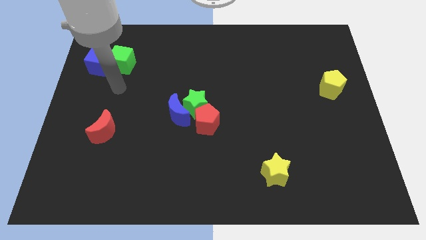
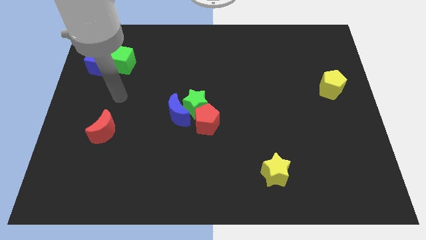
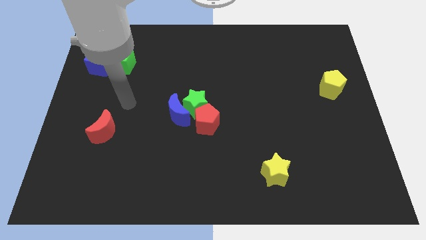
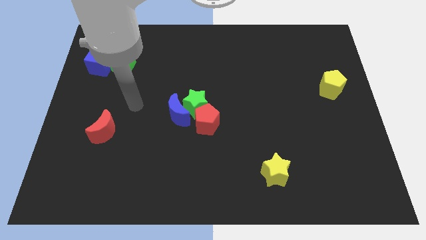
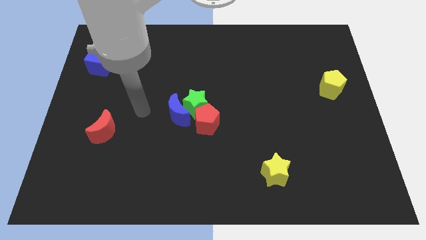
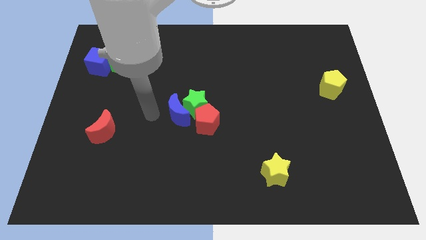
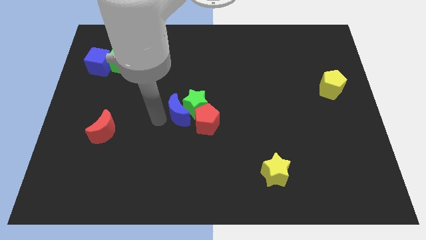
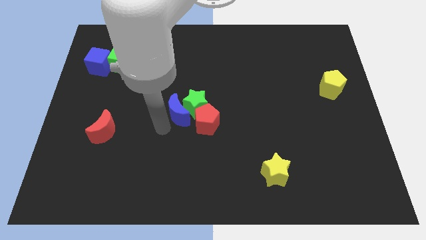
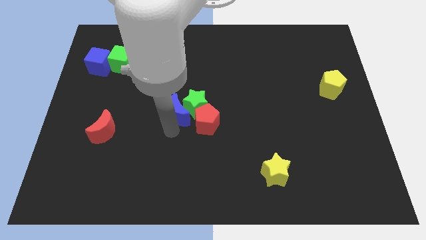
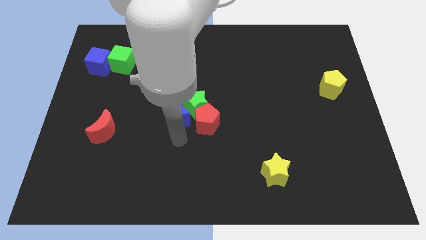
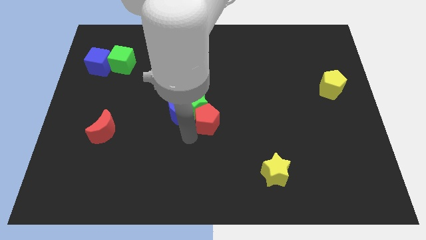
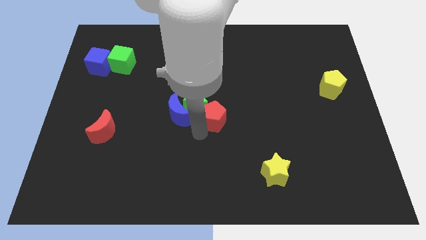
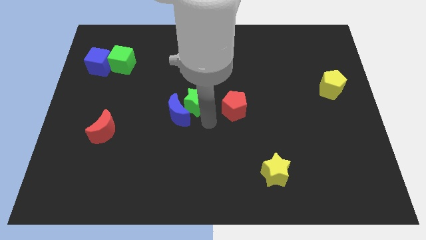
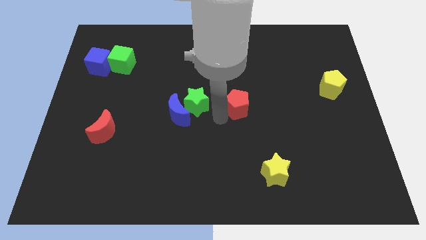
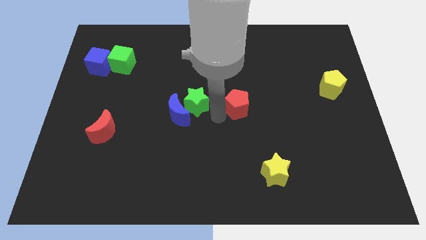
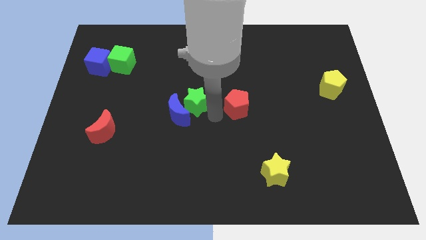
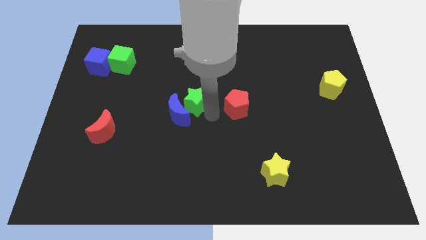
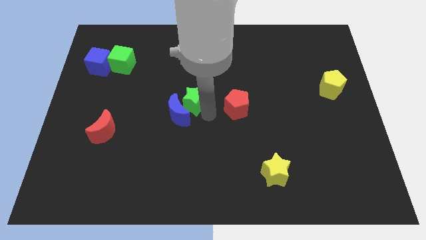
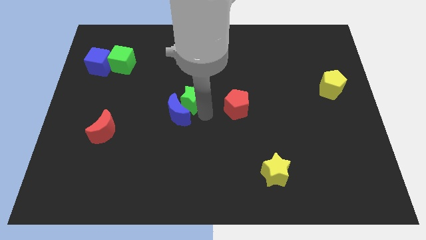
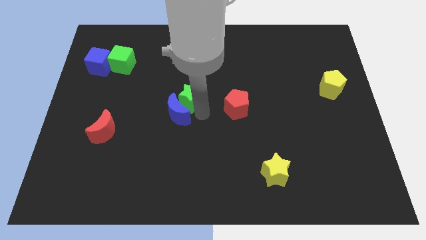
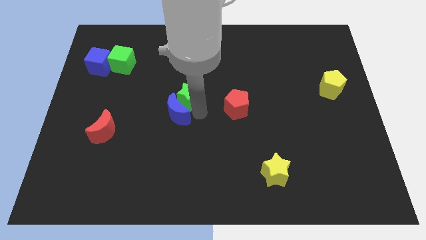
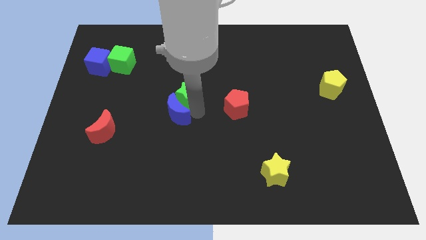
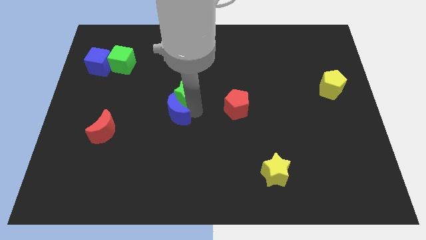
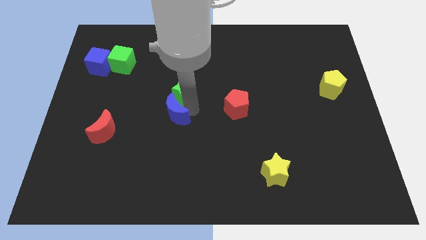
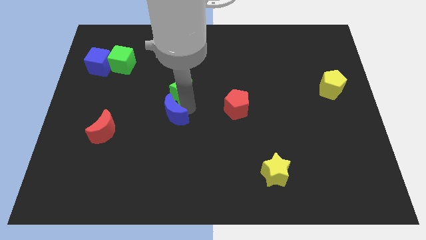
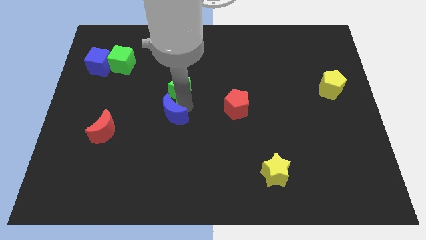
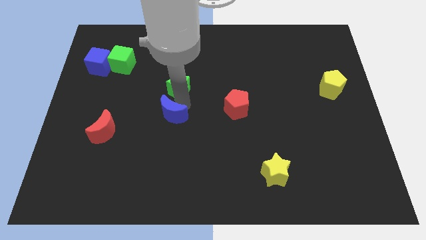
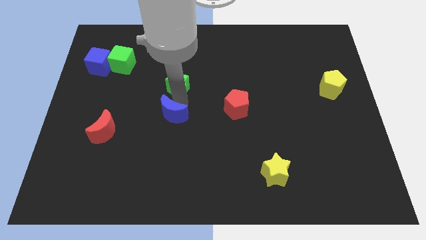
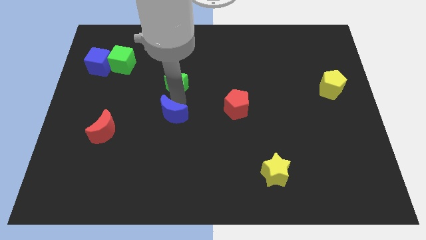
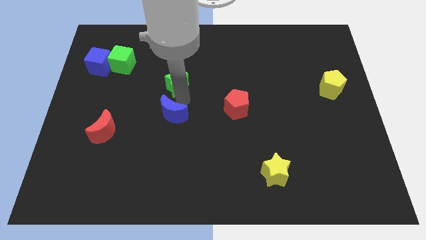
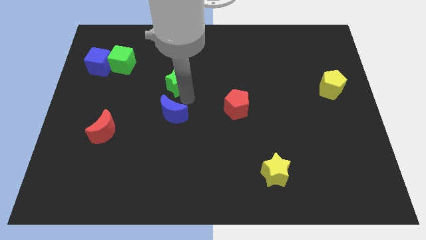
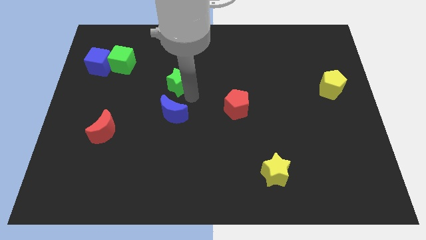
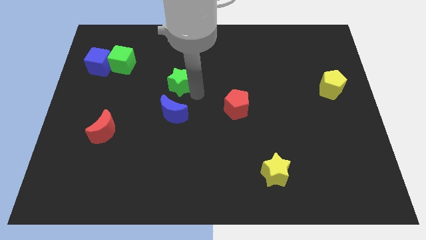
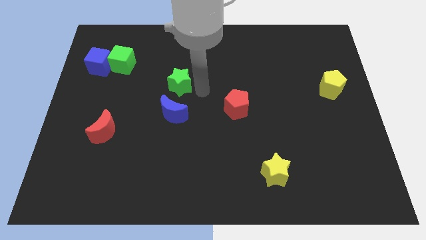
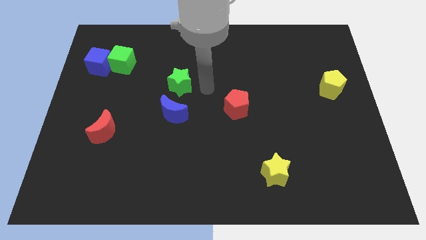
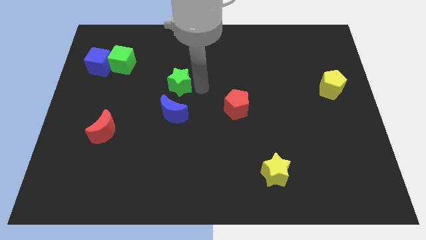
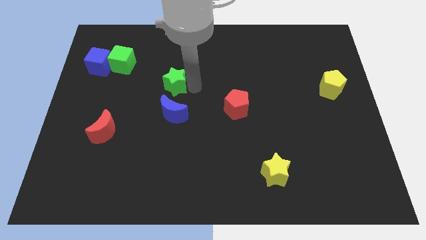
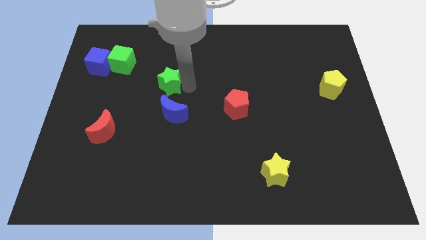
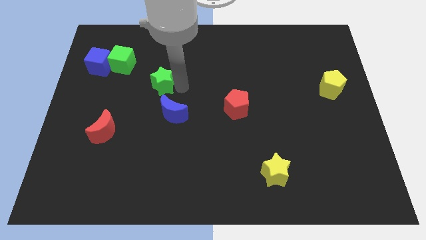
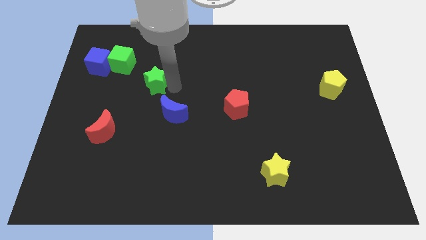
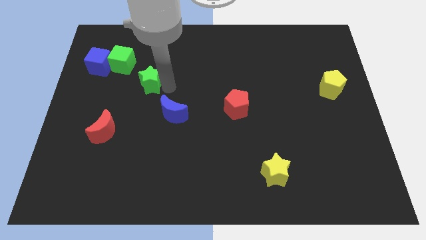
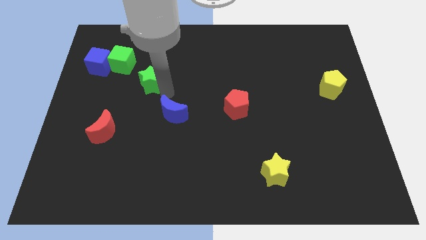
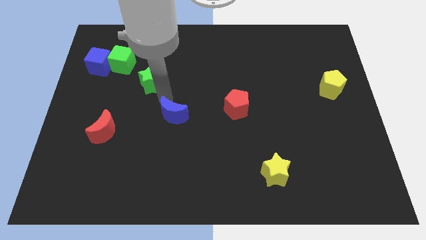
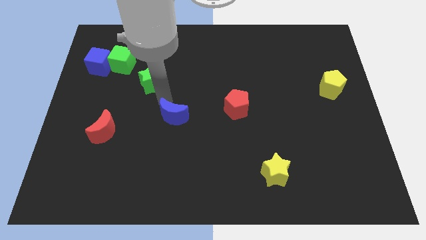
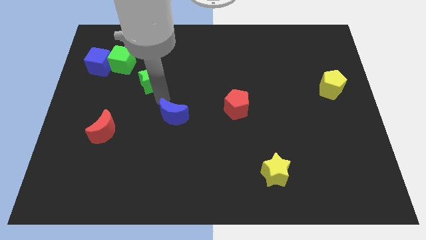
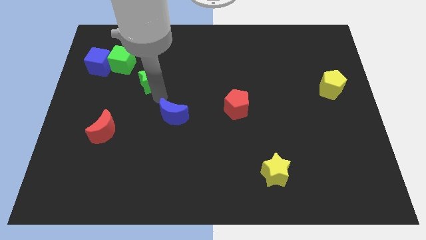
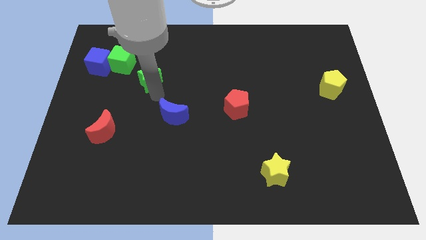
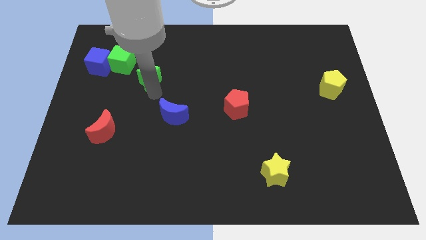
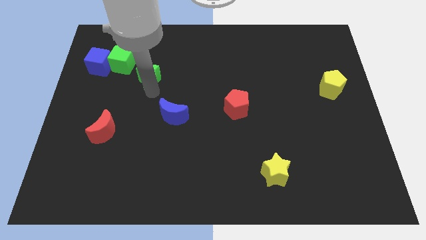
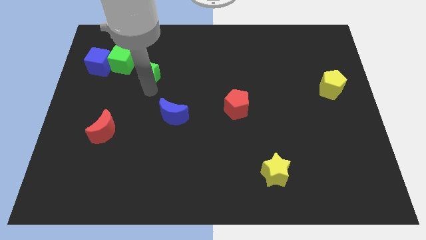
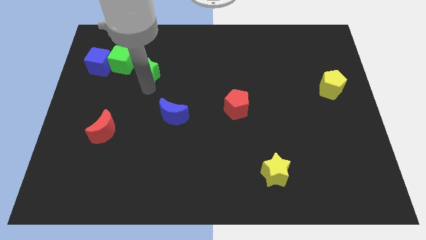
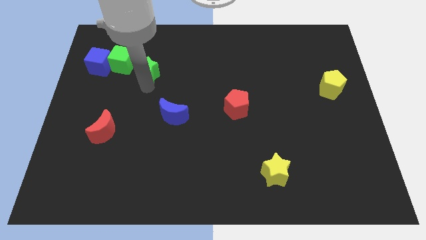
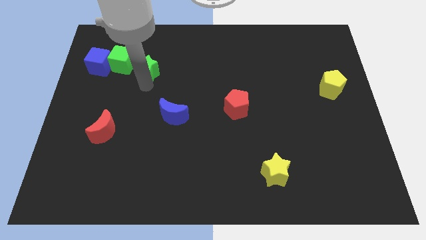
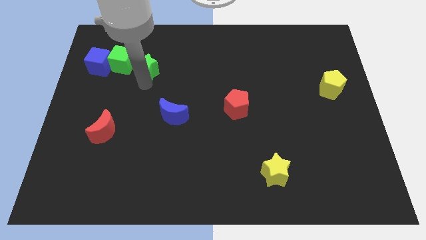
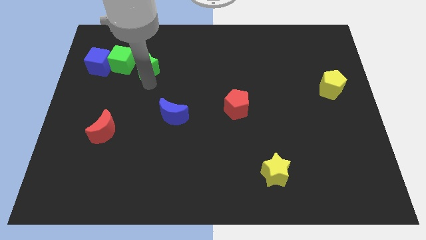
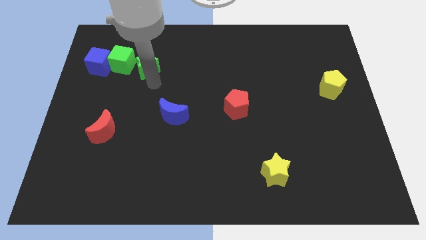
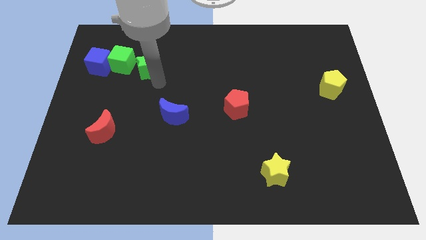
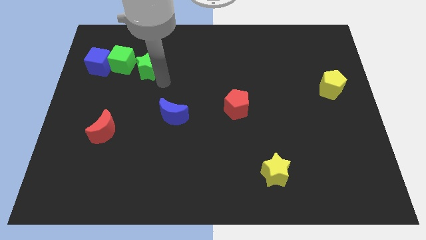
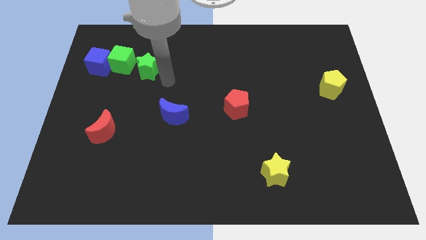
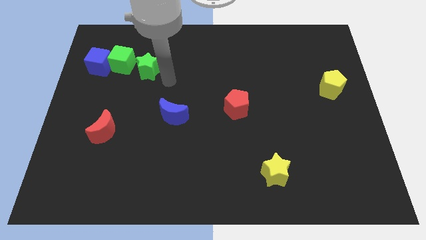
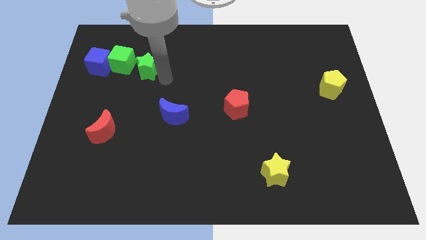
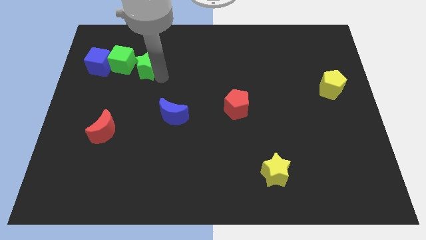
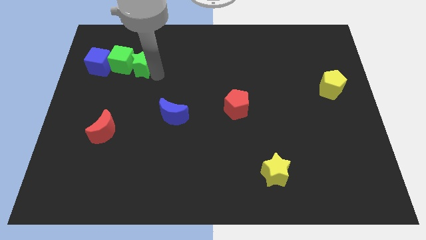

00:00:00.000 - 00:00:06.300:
slide the green star next to the green cube
